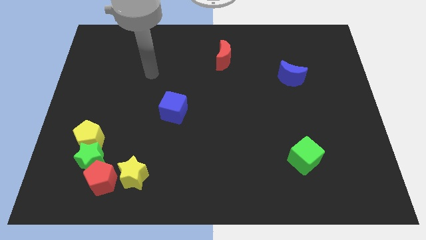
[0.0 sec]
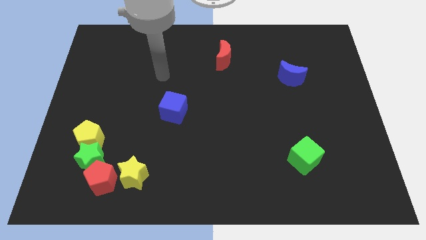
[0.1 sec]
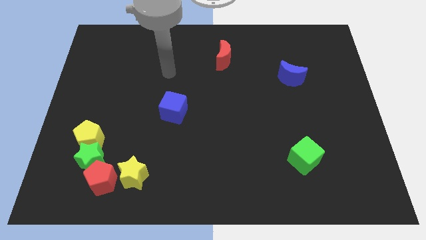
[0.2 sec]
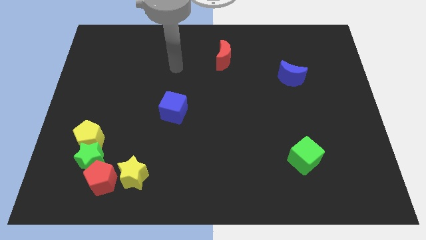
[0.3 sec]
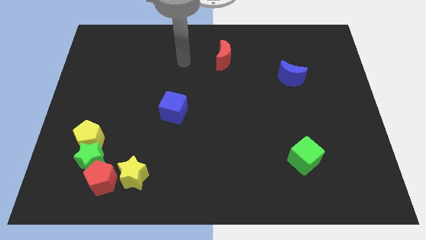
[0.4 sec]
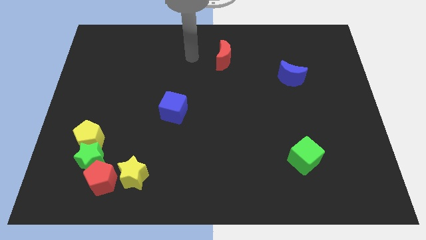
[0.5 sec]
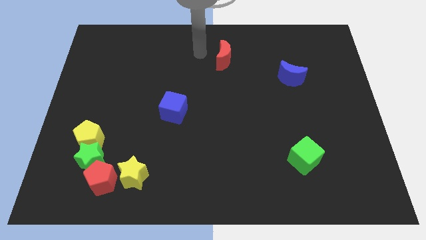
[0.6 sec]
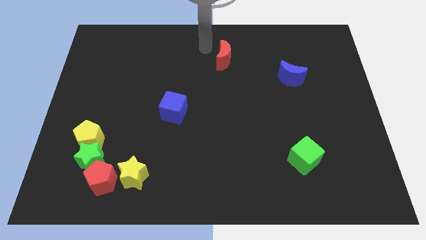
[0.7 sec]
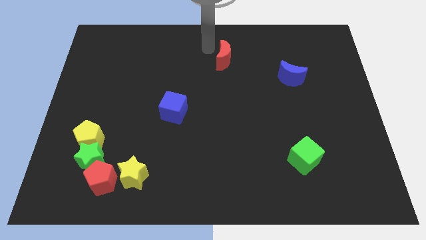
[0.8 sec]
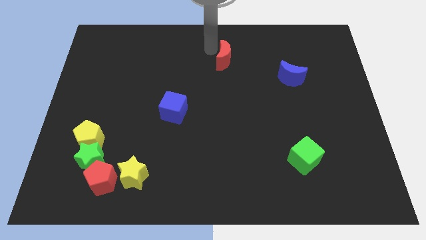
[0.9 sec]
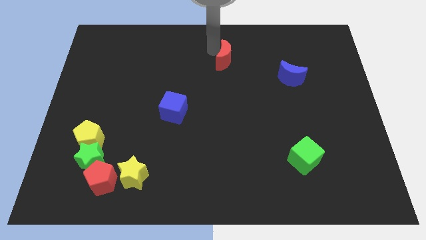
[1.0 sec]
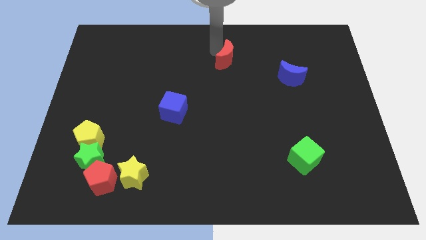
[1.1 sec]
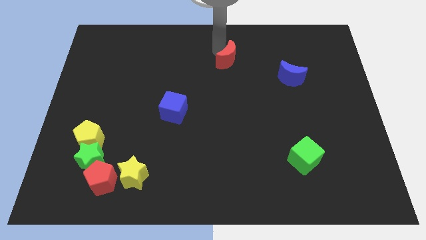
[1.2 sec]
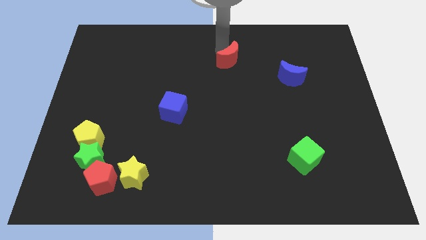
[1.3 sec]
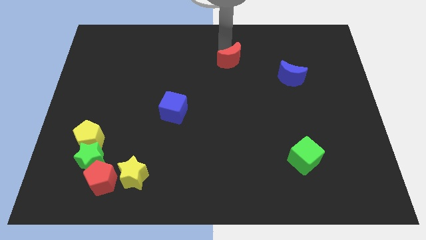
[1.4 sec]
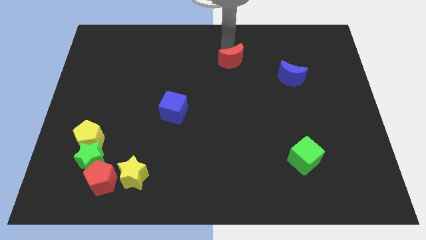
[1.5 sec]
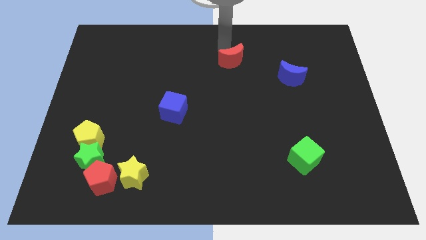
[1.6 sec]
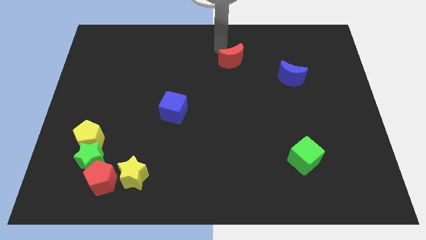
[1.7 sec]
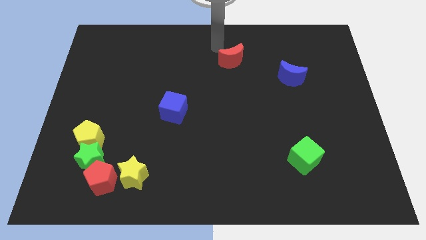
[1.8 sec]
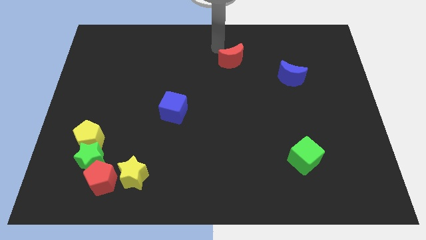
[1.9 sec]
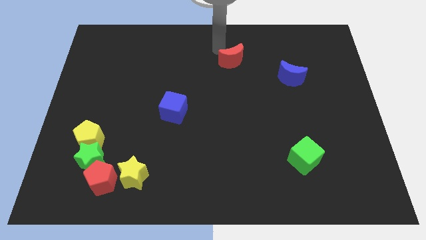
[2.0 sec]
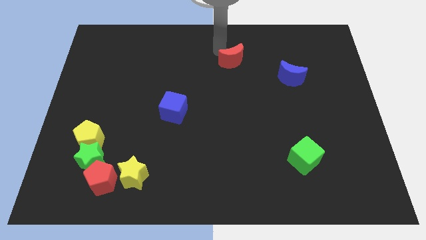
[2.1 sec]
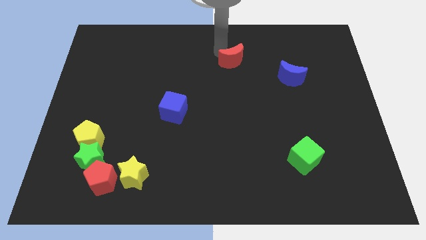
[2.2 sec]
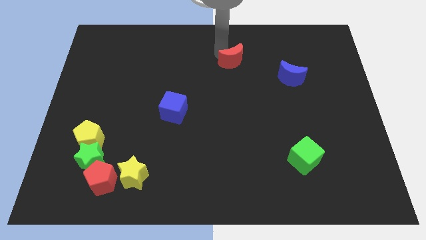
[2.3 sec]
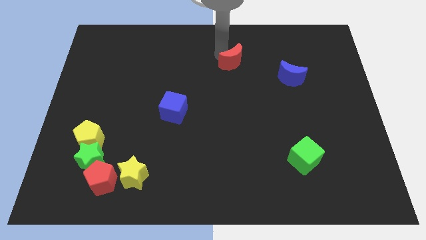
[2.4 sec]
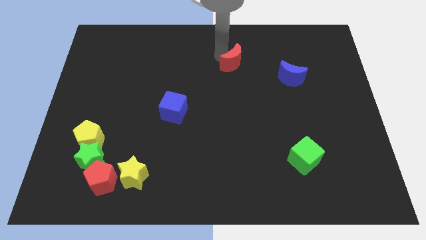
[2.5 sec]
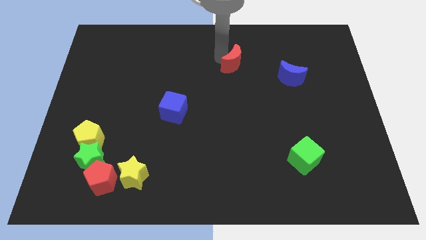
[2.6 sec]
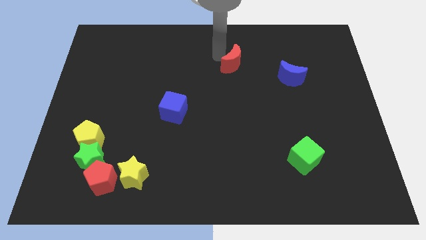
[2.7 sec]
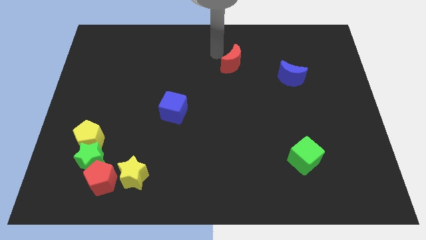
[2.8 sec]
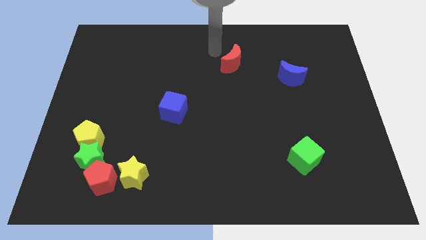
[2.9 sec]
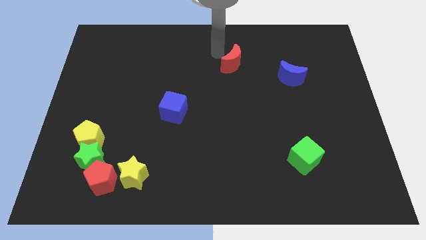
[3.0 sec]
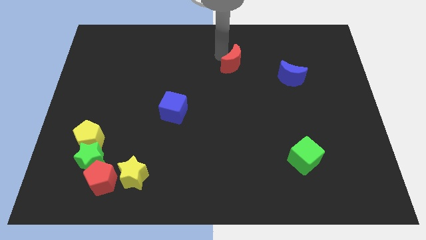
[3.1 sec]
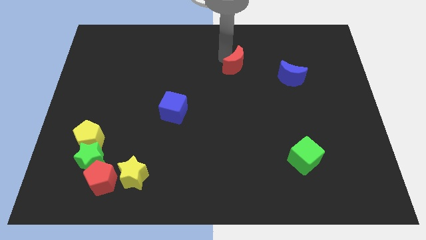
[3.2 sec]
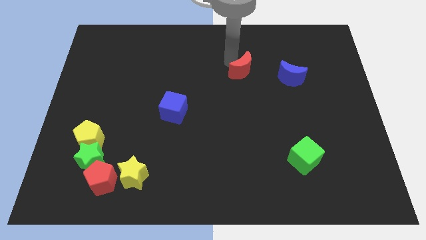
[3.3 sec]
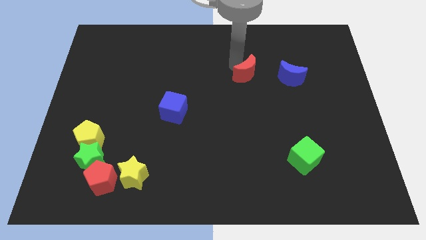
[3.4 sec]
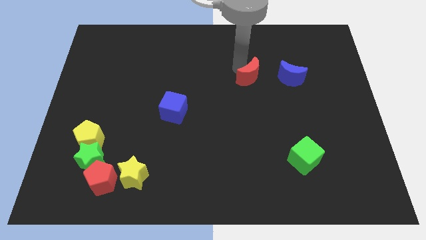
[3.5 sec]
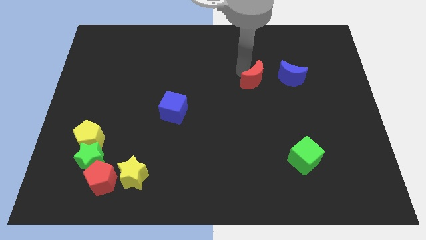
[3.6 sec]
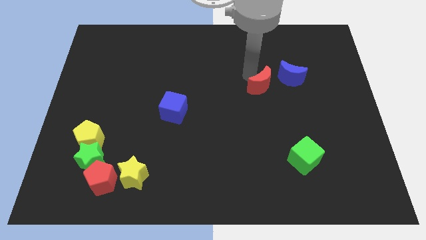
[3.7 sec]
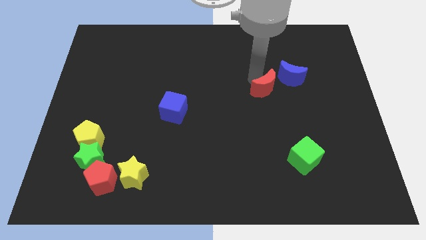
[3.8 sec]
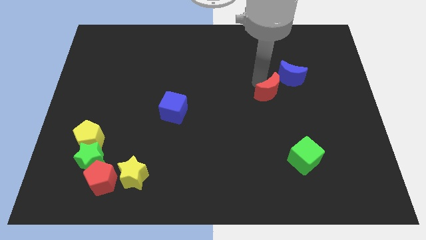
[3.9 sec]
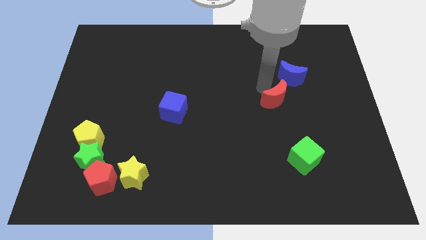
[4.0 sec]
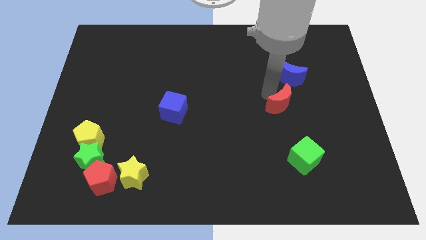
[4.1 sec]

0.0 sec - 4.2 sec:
move the red moon diagonally downwards and to the right

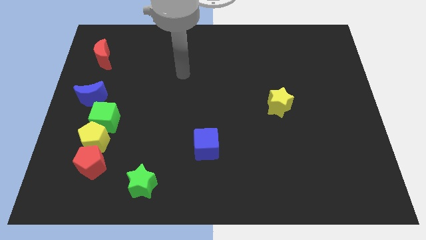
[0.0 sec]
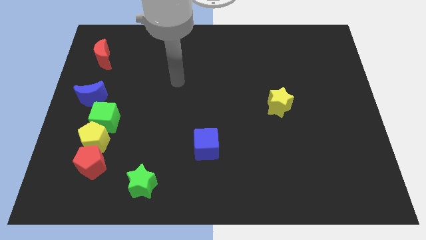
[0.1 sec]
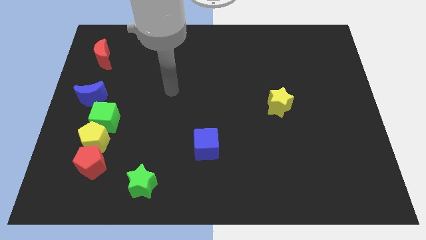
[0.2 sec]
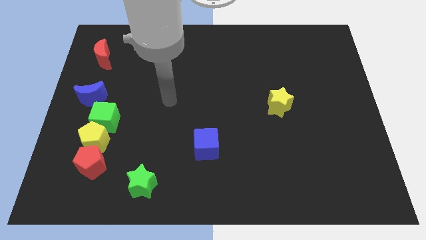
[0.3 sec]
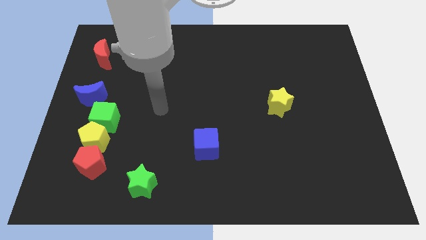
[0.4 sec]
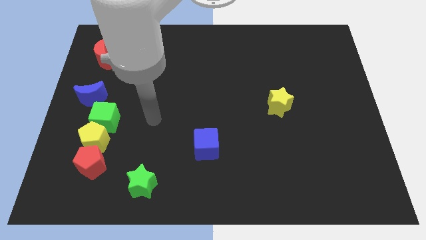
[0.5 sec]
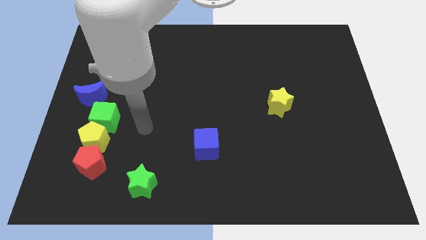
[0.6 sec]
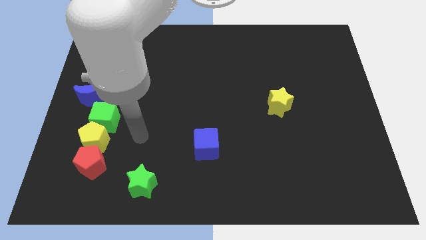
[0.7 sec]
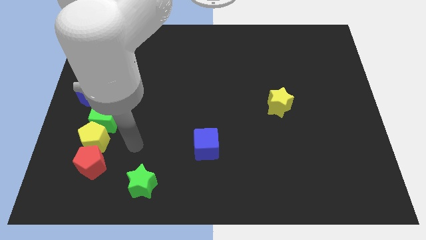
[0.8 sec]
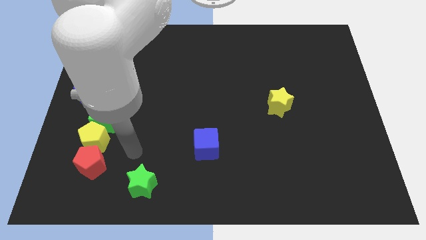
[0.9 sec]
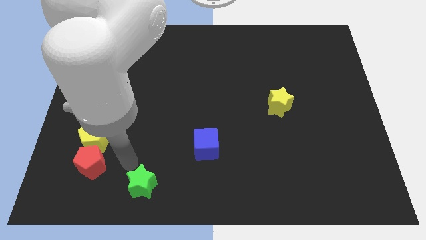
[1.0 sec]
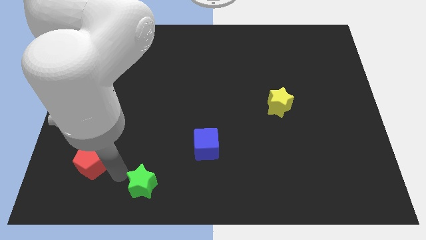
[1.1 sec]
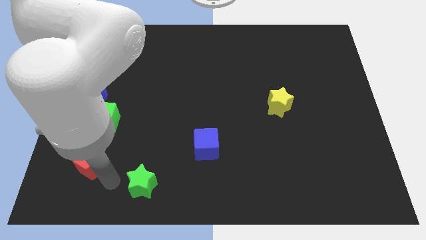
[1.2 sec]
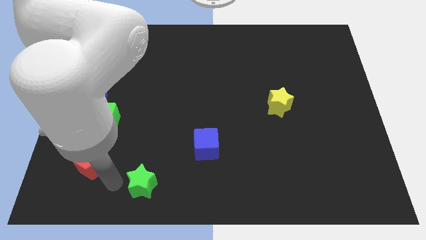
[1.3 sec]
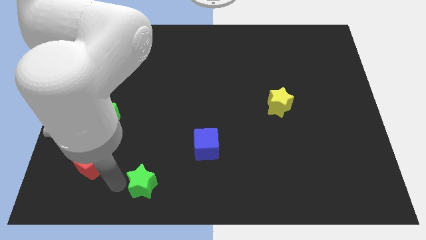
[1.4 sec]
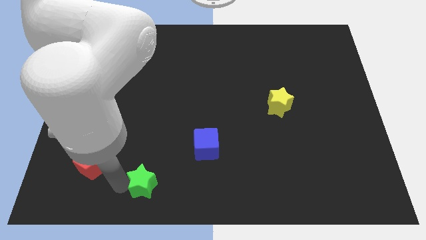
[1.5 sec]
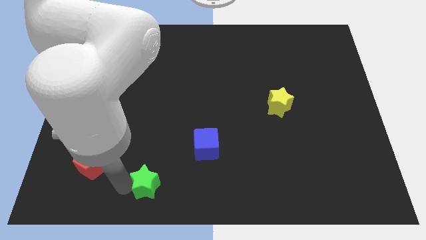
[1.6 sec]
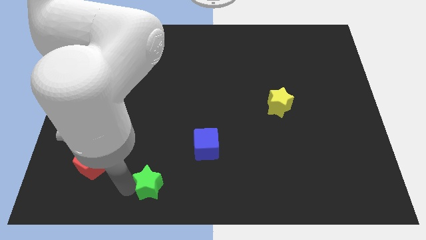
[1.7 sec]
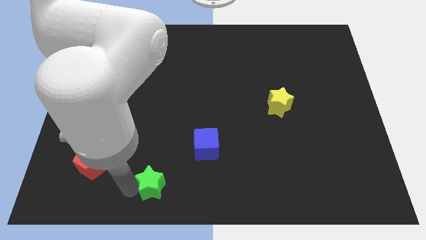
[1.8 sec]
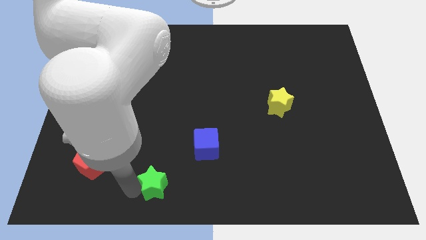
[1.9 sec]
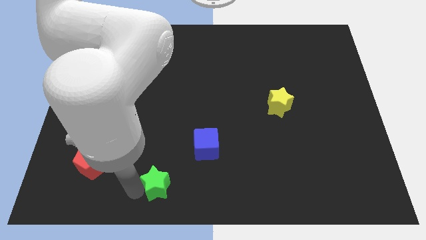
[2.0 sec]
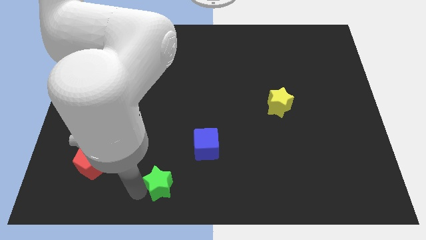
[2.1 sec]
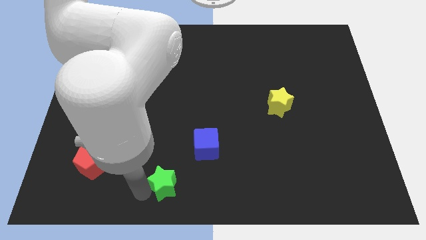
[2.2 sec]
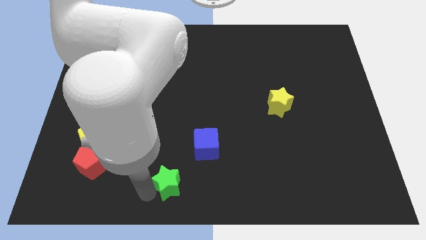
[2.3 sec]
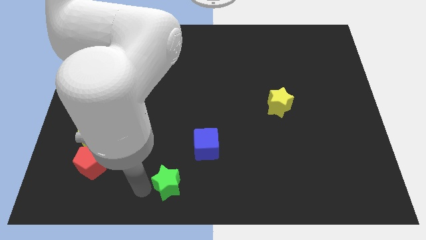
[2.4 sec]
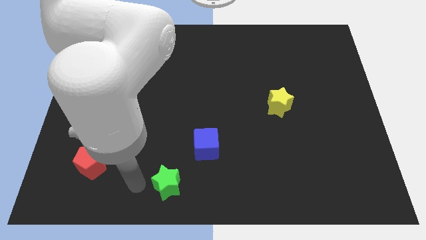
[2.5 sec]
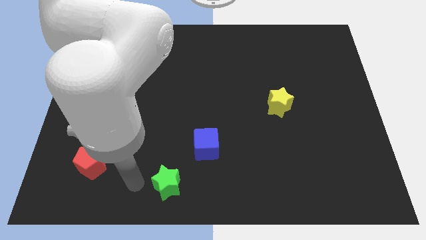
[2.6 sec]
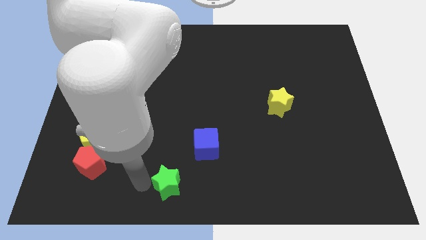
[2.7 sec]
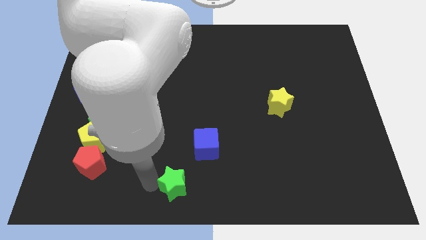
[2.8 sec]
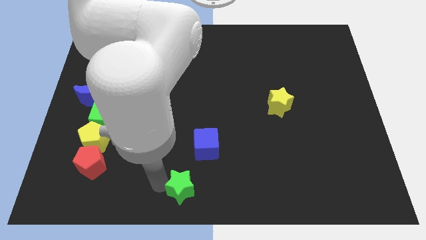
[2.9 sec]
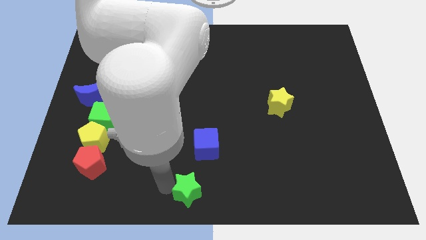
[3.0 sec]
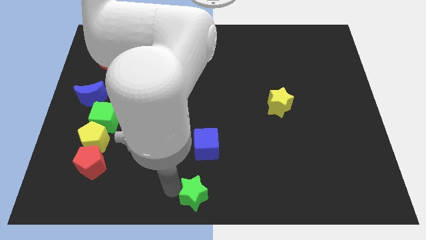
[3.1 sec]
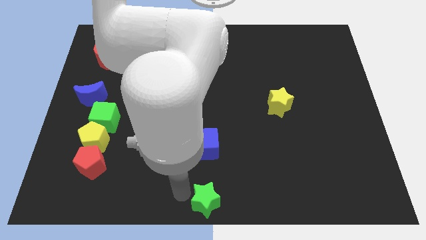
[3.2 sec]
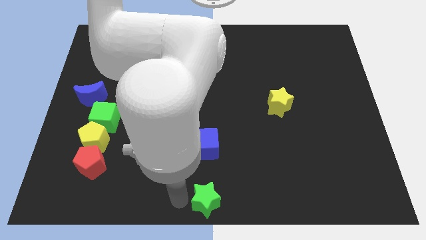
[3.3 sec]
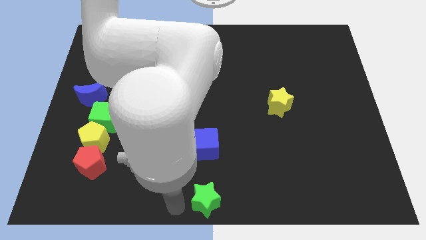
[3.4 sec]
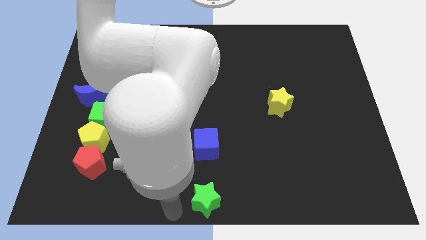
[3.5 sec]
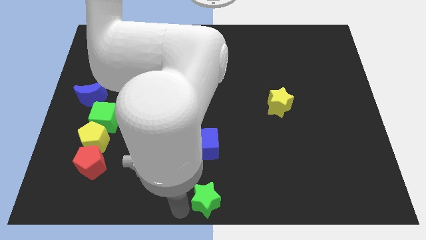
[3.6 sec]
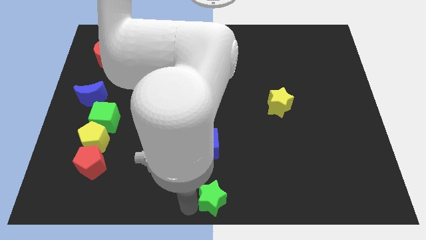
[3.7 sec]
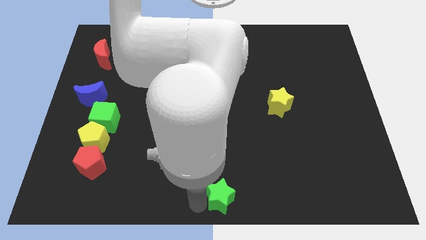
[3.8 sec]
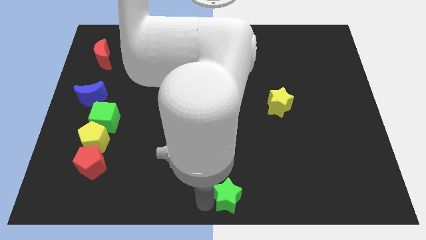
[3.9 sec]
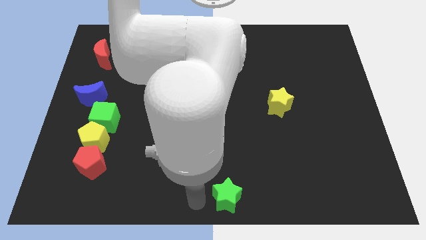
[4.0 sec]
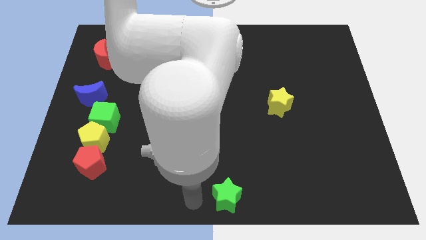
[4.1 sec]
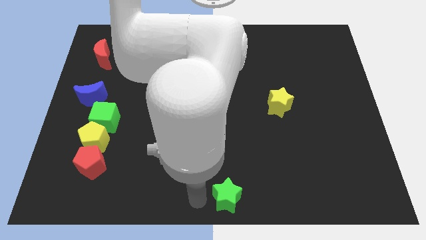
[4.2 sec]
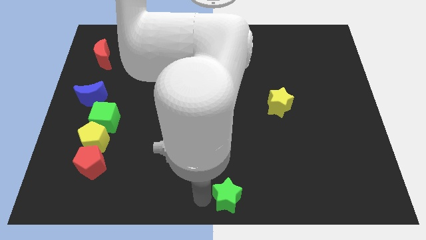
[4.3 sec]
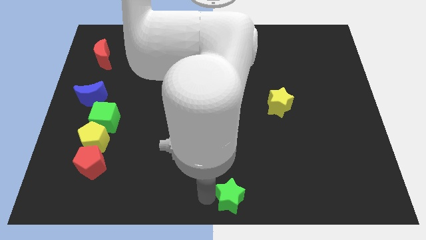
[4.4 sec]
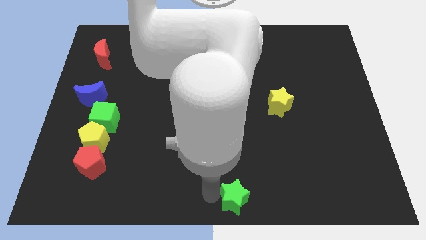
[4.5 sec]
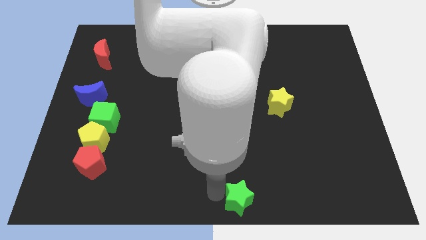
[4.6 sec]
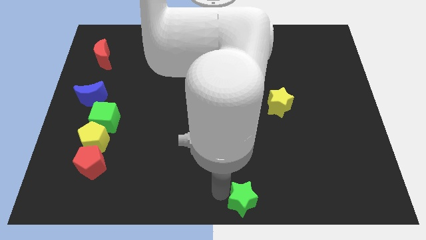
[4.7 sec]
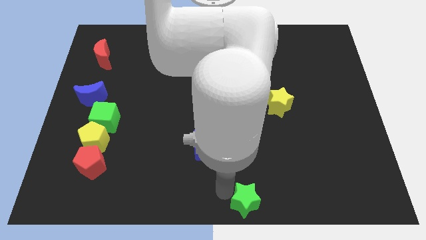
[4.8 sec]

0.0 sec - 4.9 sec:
push the green star to the right
